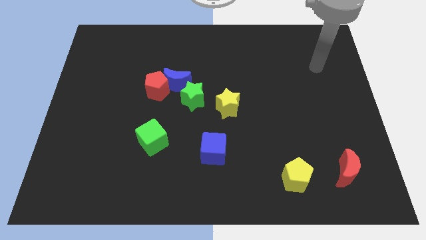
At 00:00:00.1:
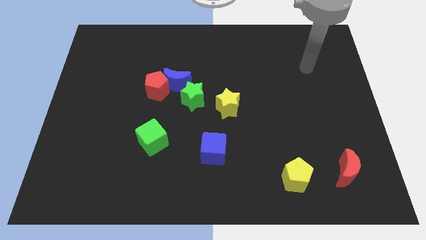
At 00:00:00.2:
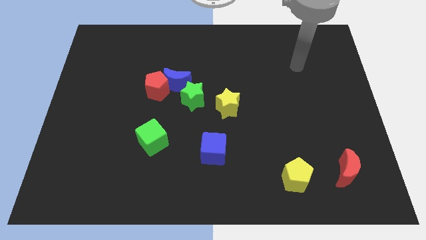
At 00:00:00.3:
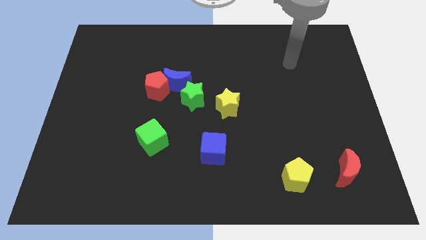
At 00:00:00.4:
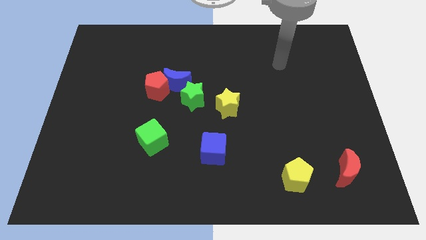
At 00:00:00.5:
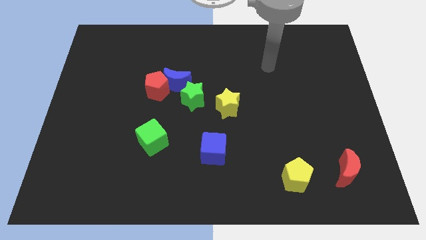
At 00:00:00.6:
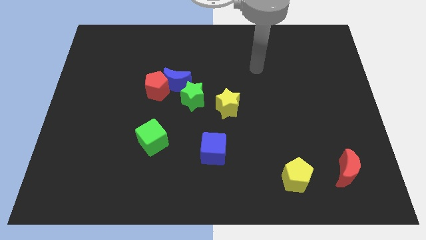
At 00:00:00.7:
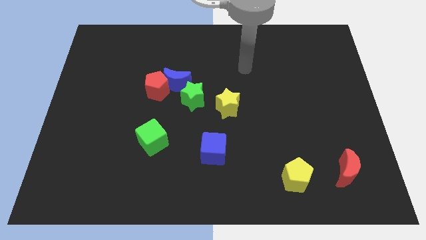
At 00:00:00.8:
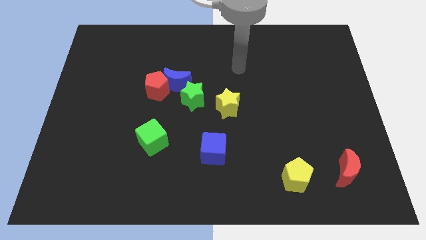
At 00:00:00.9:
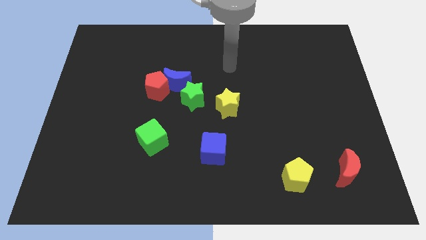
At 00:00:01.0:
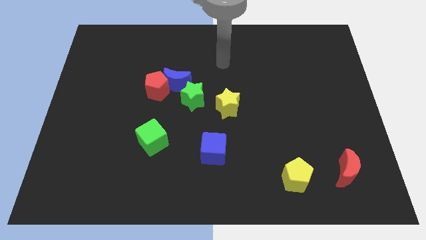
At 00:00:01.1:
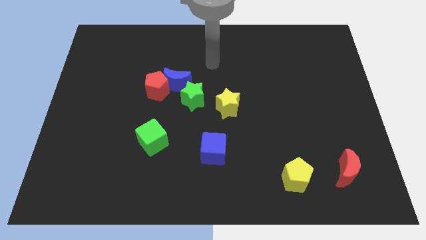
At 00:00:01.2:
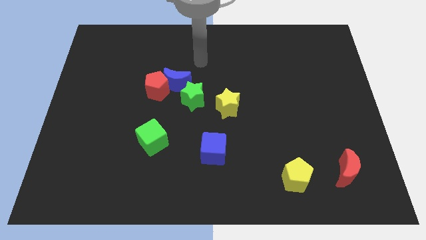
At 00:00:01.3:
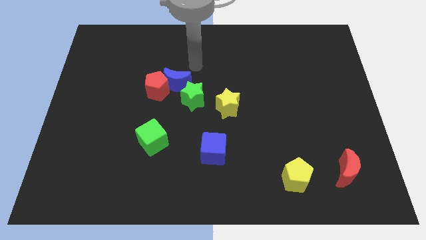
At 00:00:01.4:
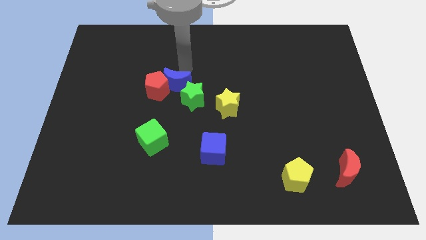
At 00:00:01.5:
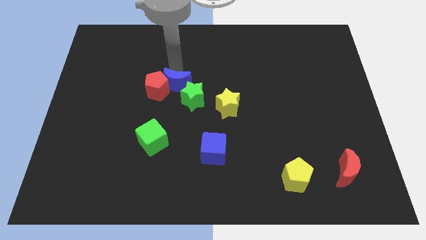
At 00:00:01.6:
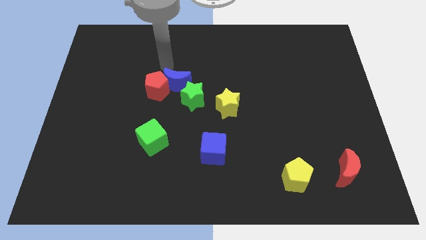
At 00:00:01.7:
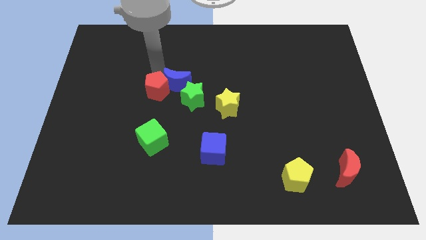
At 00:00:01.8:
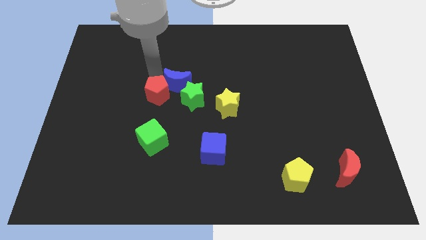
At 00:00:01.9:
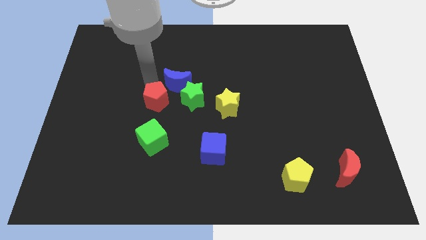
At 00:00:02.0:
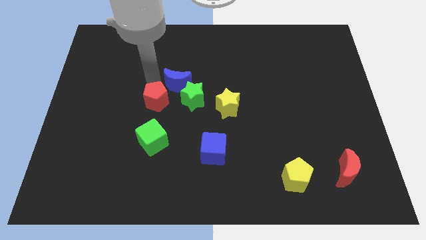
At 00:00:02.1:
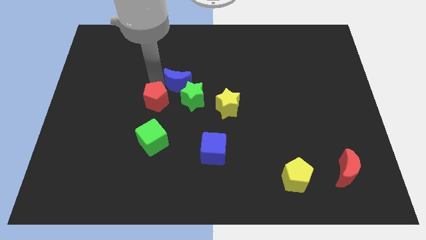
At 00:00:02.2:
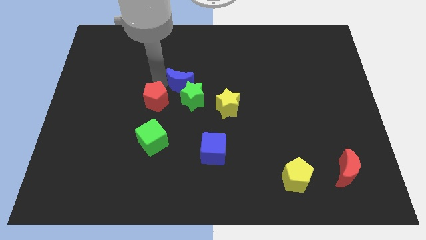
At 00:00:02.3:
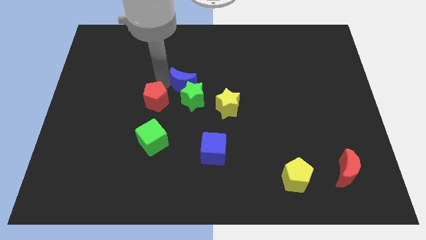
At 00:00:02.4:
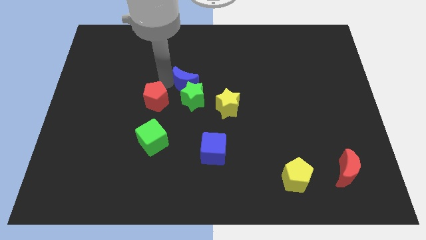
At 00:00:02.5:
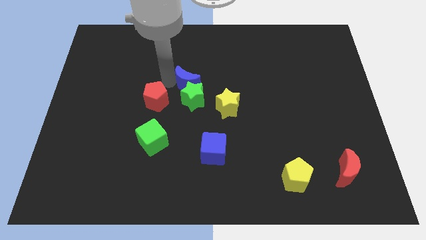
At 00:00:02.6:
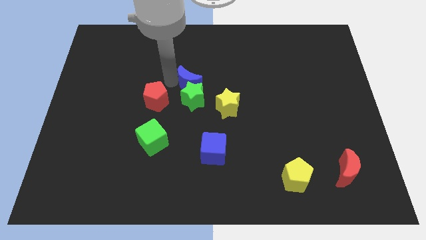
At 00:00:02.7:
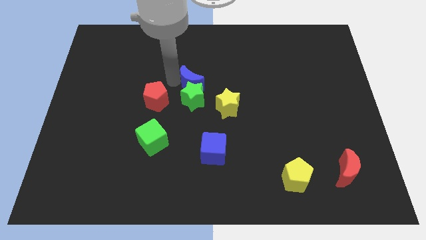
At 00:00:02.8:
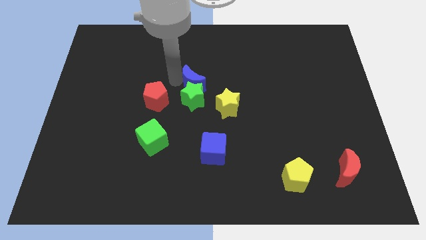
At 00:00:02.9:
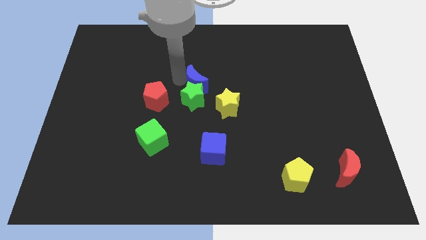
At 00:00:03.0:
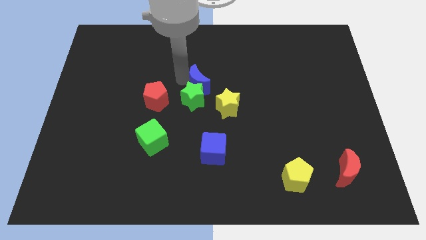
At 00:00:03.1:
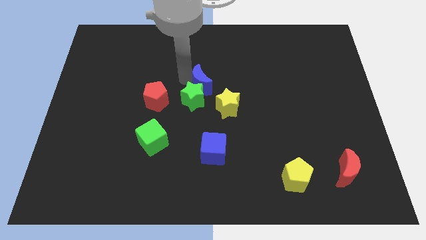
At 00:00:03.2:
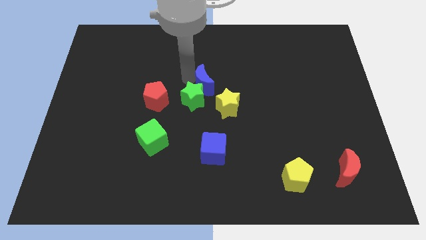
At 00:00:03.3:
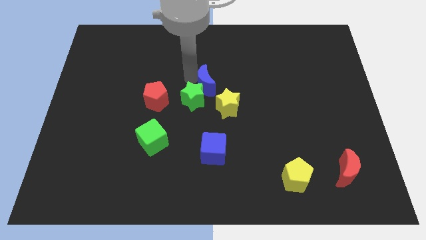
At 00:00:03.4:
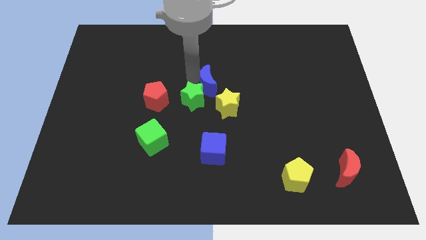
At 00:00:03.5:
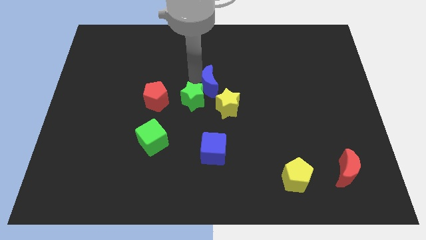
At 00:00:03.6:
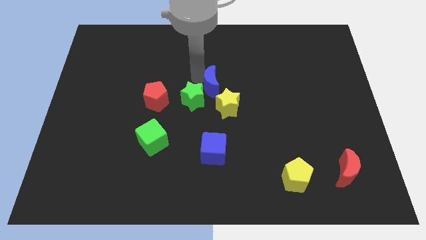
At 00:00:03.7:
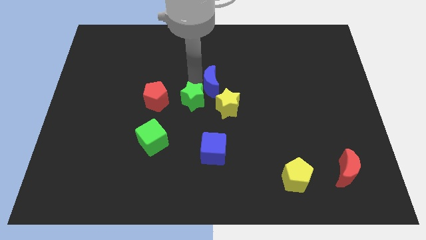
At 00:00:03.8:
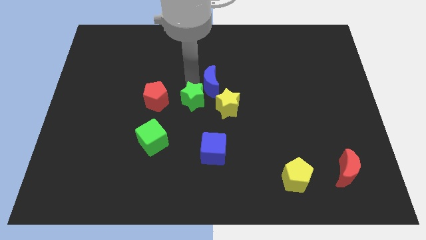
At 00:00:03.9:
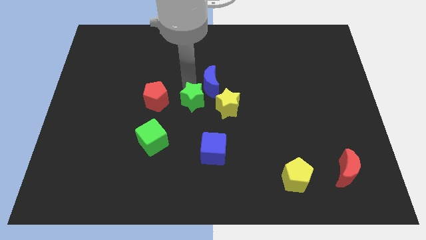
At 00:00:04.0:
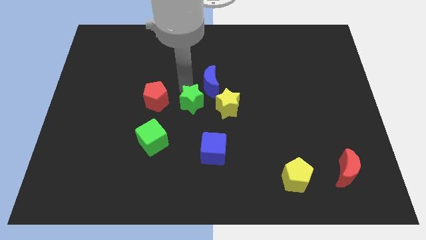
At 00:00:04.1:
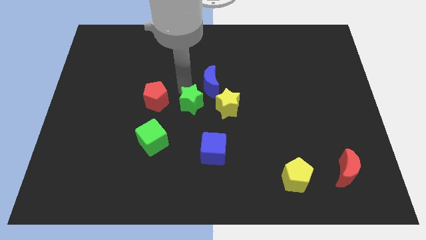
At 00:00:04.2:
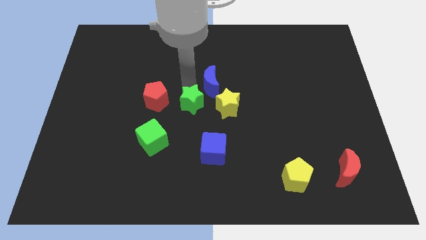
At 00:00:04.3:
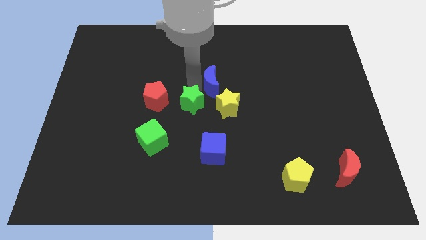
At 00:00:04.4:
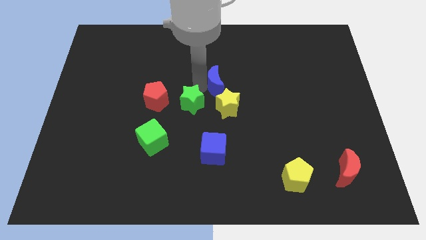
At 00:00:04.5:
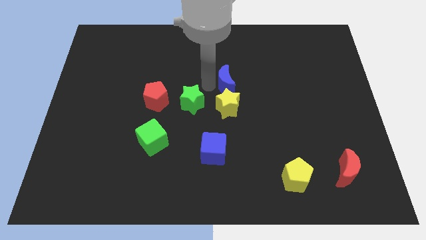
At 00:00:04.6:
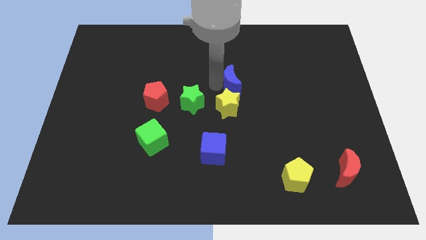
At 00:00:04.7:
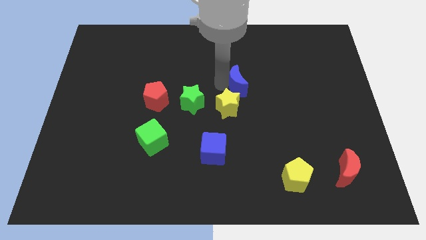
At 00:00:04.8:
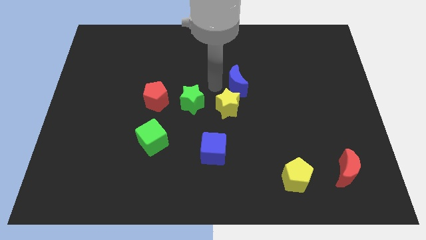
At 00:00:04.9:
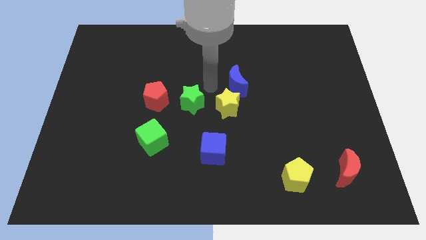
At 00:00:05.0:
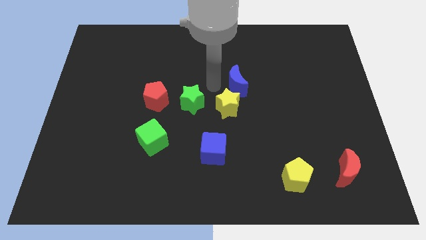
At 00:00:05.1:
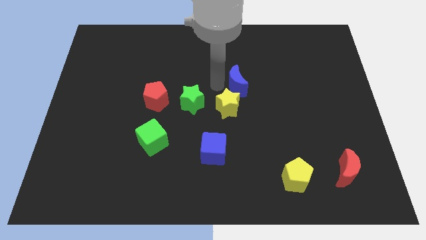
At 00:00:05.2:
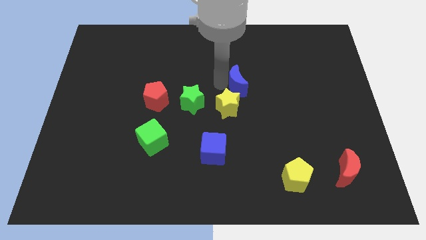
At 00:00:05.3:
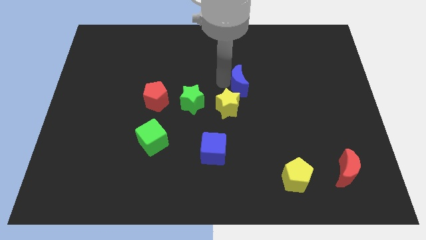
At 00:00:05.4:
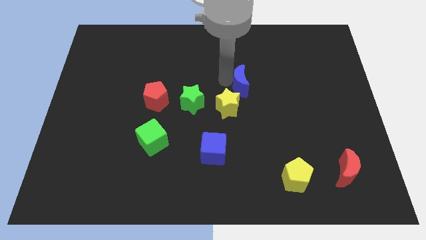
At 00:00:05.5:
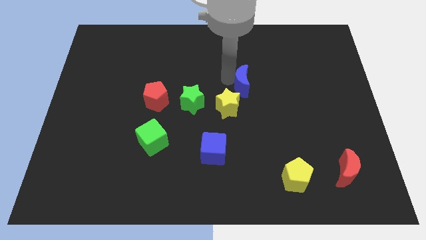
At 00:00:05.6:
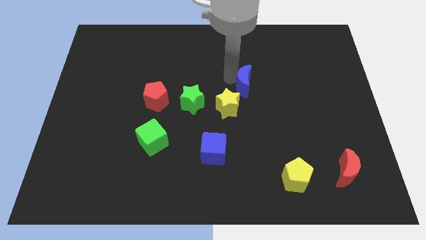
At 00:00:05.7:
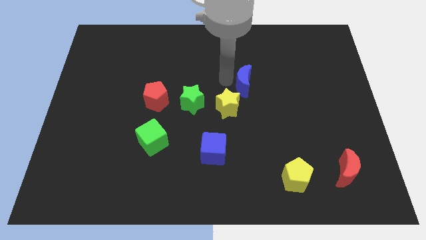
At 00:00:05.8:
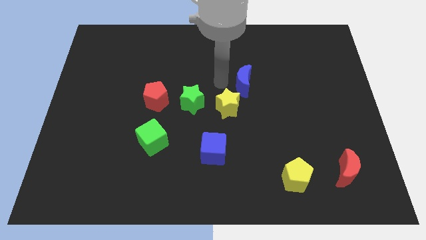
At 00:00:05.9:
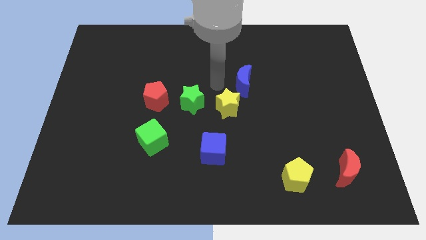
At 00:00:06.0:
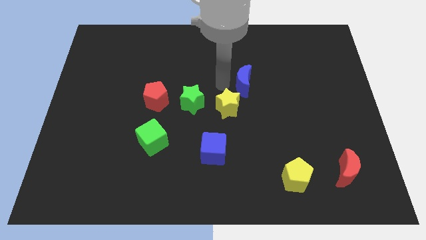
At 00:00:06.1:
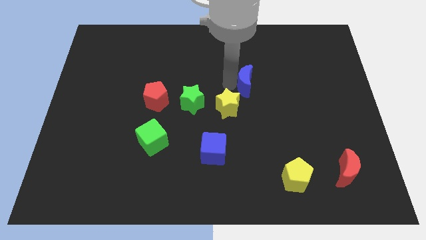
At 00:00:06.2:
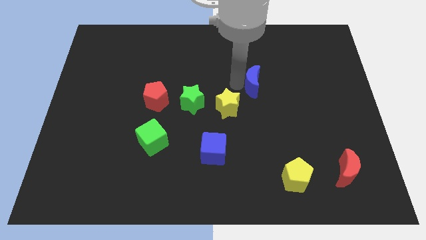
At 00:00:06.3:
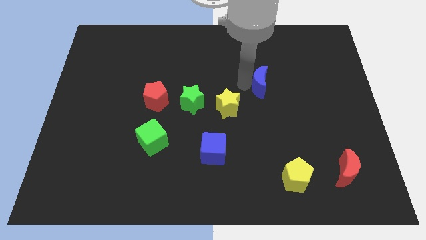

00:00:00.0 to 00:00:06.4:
push the blue moon right

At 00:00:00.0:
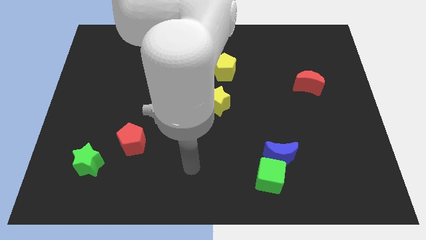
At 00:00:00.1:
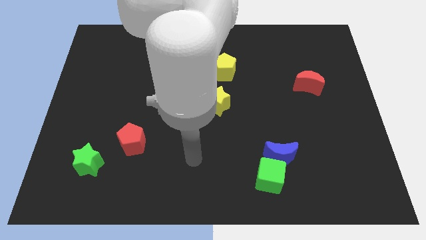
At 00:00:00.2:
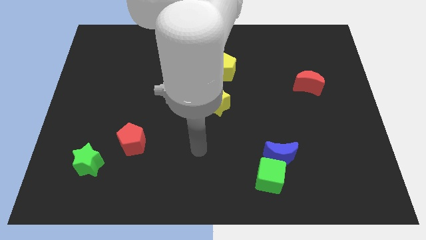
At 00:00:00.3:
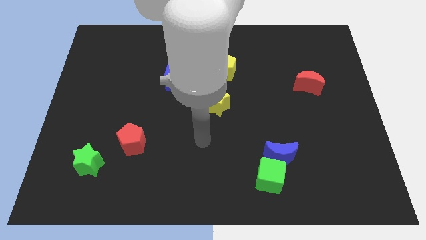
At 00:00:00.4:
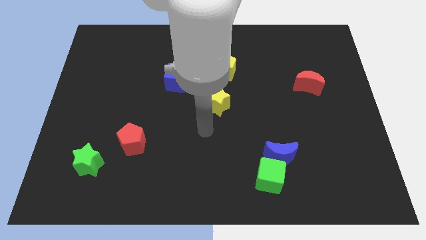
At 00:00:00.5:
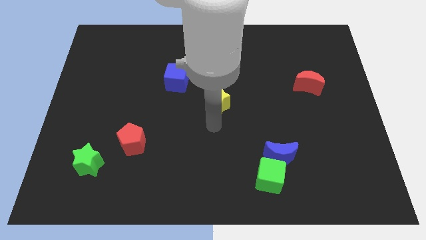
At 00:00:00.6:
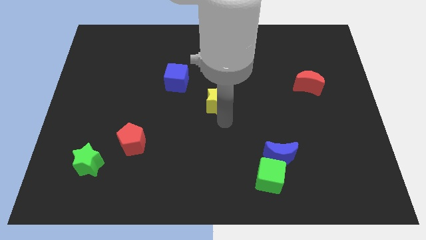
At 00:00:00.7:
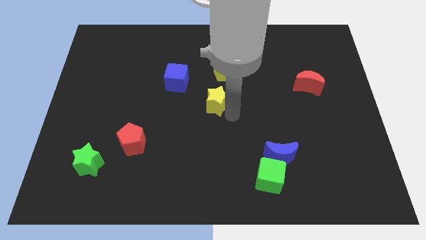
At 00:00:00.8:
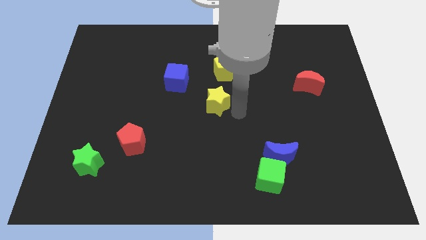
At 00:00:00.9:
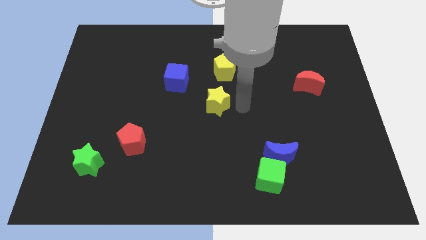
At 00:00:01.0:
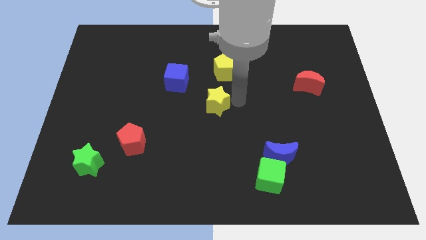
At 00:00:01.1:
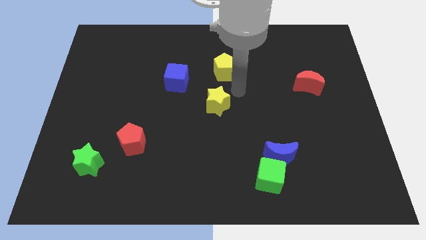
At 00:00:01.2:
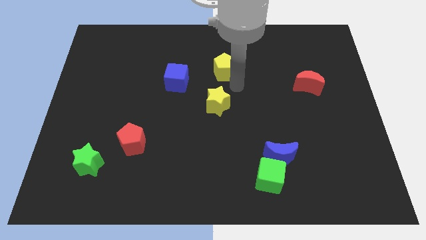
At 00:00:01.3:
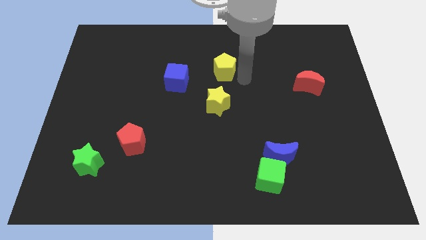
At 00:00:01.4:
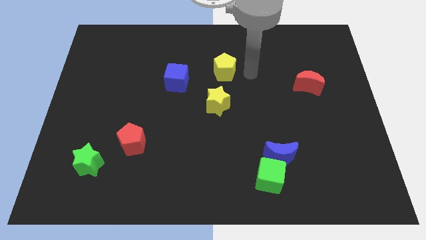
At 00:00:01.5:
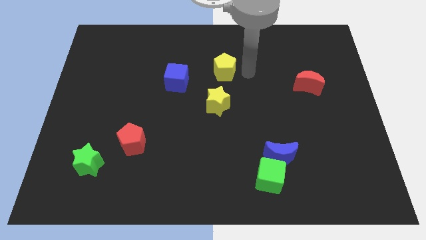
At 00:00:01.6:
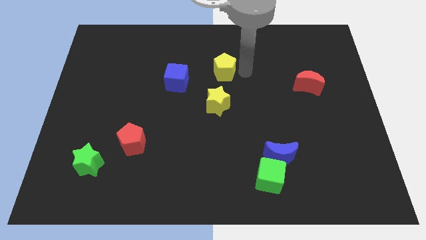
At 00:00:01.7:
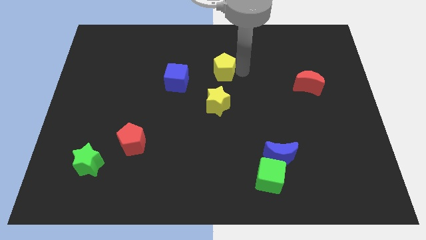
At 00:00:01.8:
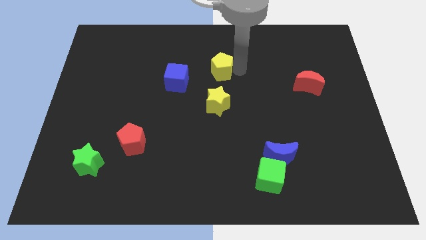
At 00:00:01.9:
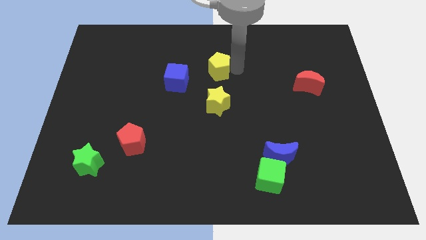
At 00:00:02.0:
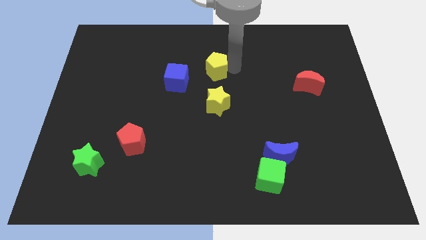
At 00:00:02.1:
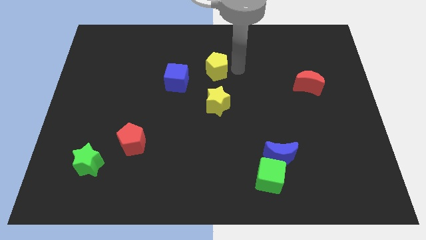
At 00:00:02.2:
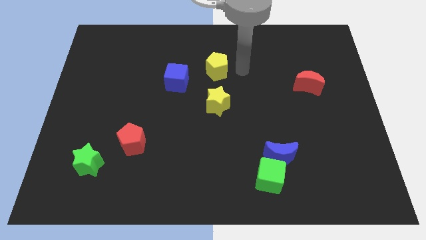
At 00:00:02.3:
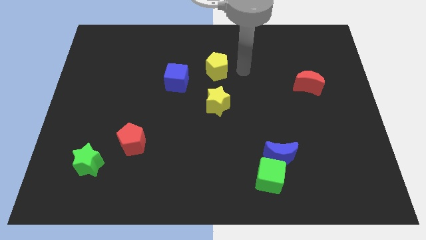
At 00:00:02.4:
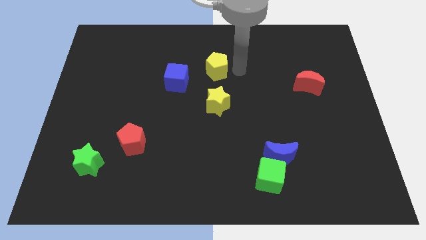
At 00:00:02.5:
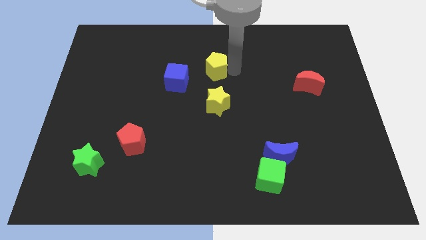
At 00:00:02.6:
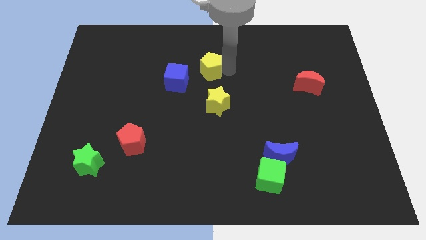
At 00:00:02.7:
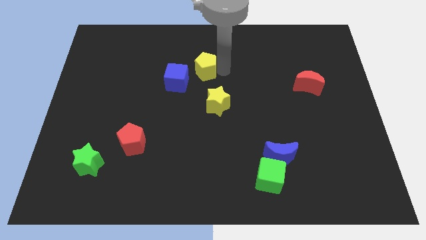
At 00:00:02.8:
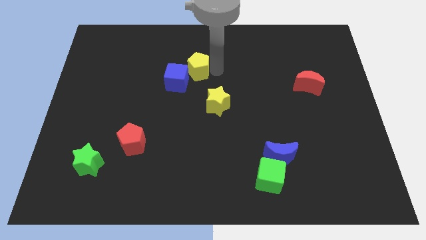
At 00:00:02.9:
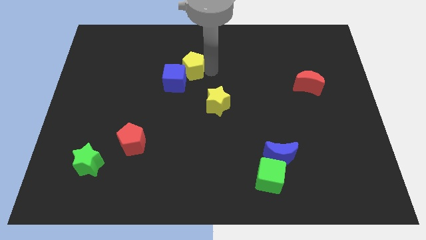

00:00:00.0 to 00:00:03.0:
slightly push the yellow pentagon to the left
